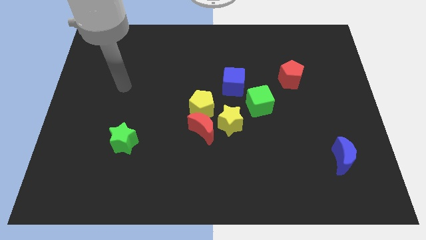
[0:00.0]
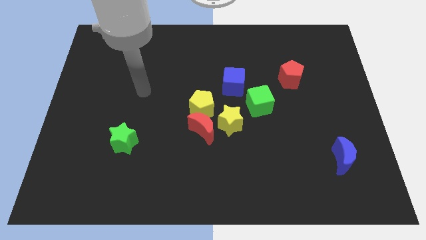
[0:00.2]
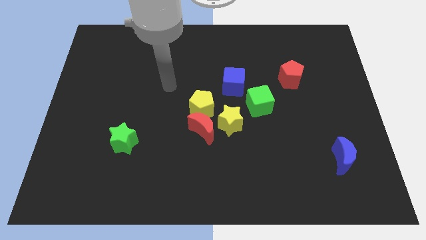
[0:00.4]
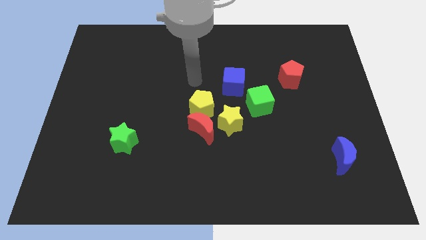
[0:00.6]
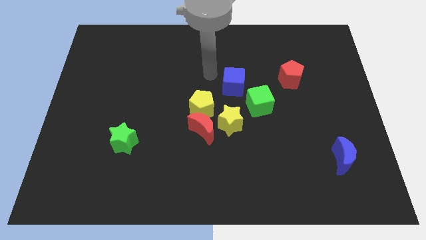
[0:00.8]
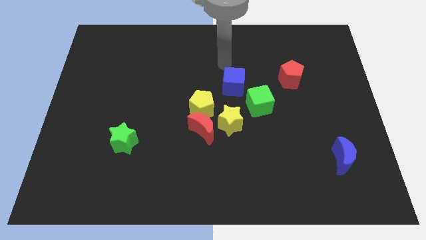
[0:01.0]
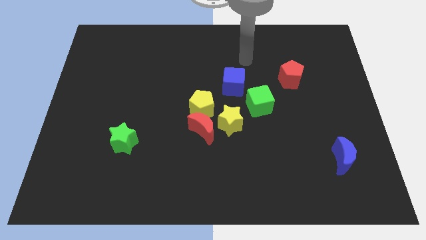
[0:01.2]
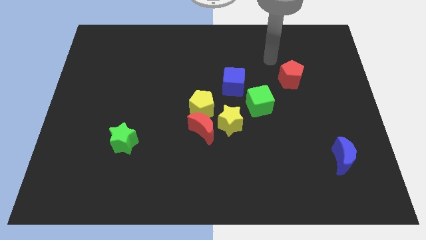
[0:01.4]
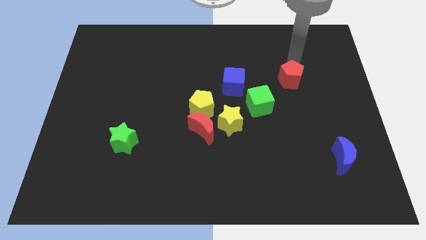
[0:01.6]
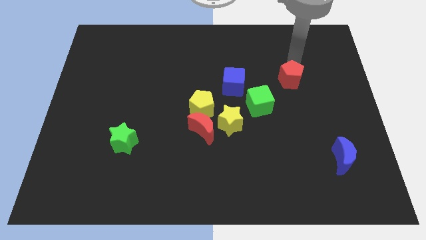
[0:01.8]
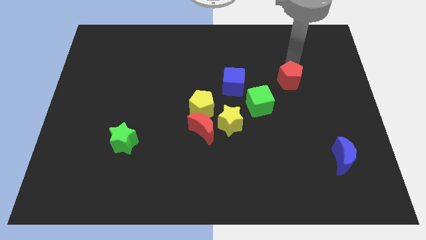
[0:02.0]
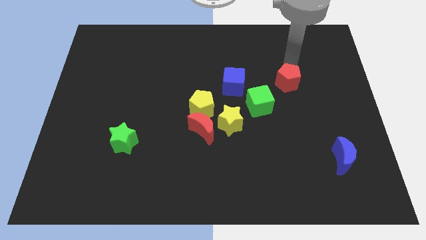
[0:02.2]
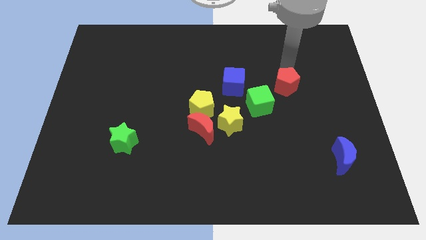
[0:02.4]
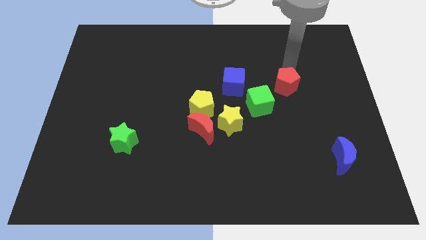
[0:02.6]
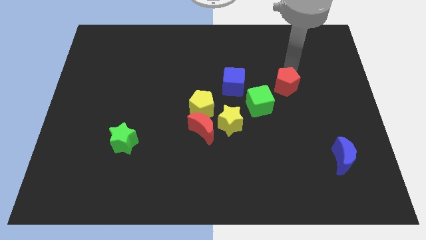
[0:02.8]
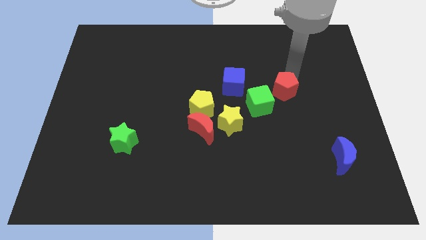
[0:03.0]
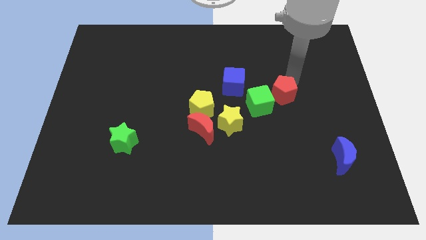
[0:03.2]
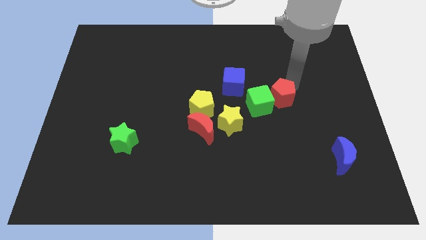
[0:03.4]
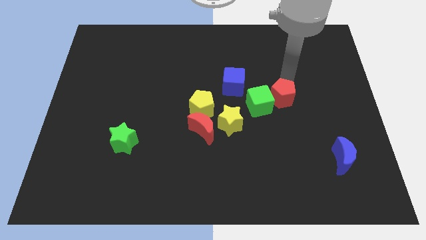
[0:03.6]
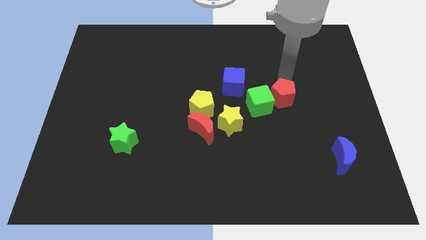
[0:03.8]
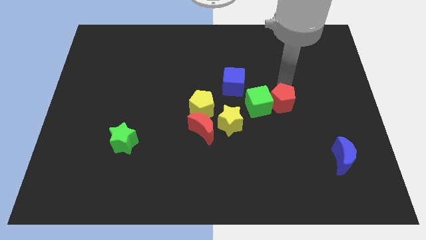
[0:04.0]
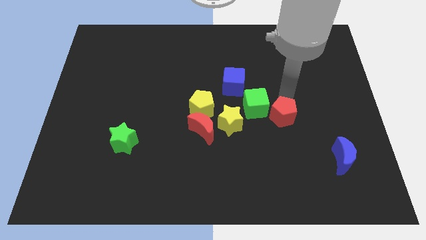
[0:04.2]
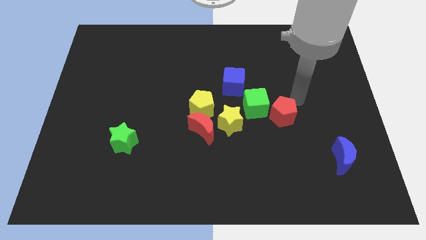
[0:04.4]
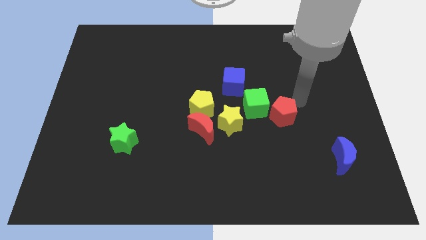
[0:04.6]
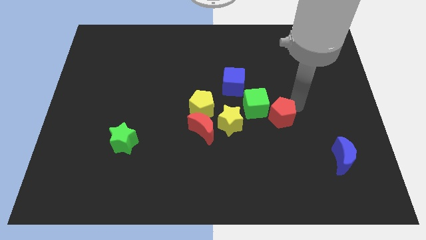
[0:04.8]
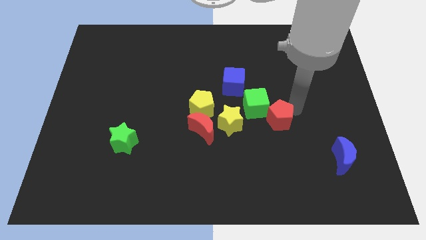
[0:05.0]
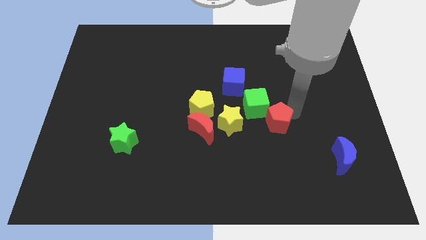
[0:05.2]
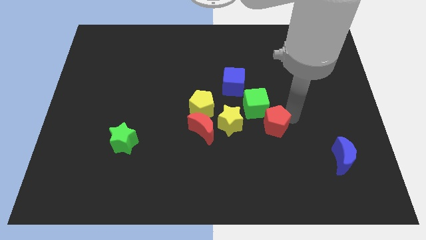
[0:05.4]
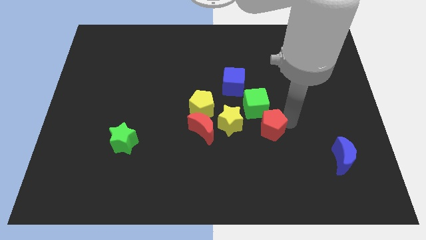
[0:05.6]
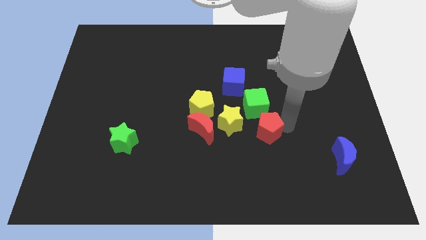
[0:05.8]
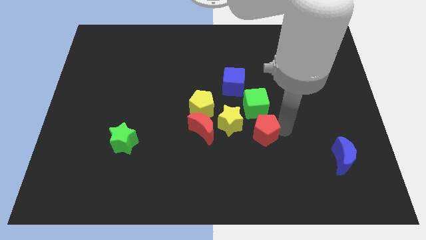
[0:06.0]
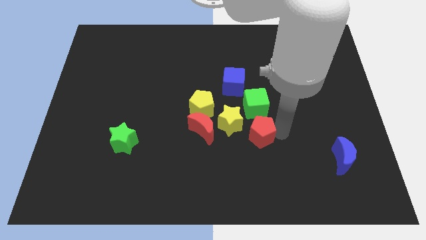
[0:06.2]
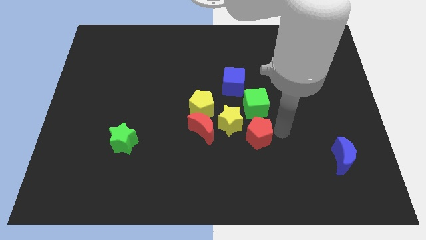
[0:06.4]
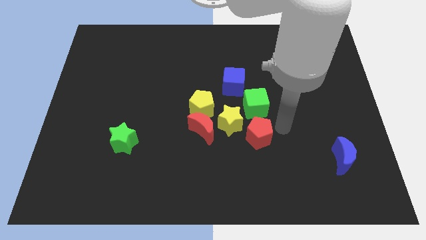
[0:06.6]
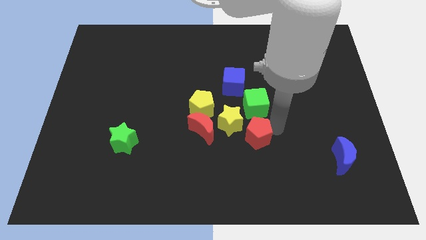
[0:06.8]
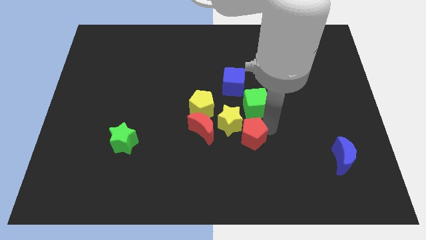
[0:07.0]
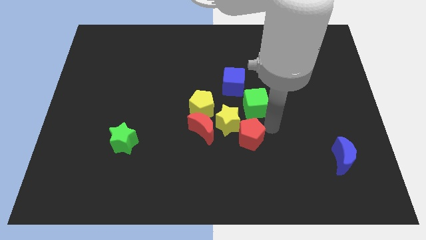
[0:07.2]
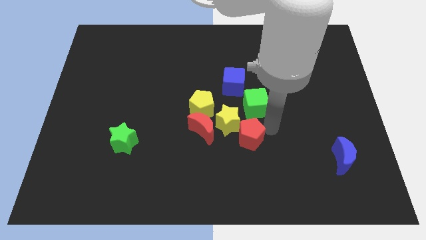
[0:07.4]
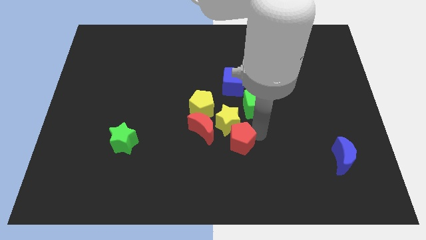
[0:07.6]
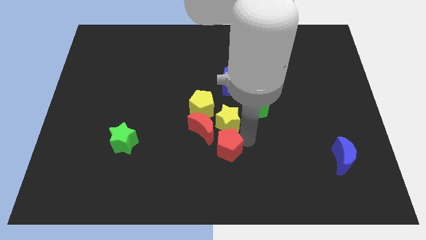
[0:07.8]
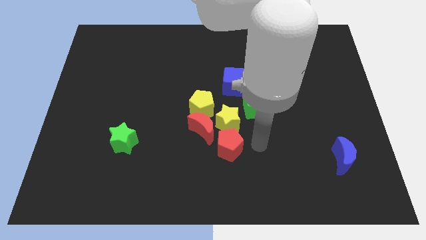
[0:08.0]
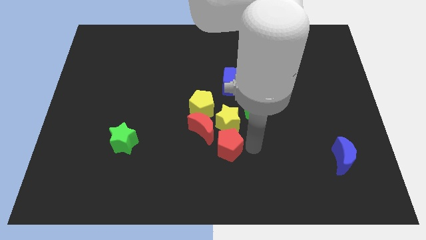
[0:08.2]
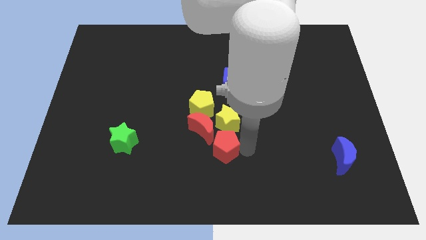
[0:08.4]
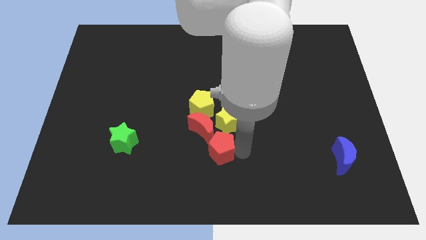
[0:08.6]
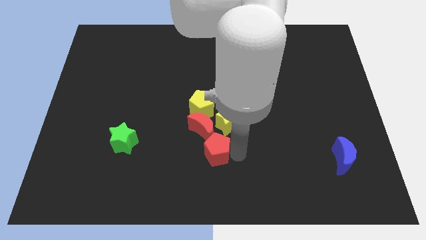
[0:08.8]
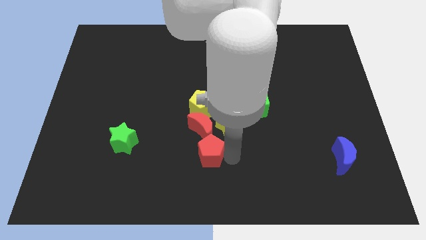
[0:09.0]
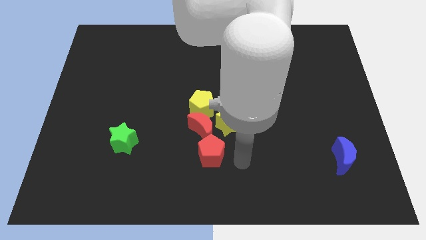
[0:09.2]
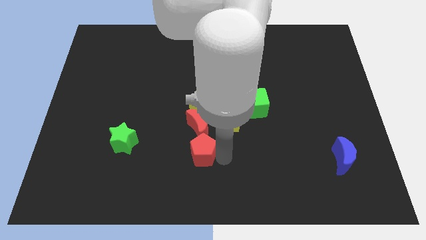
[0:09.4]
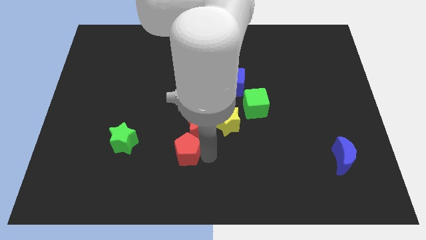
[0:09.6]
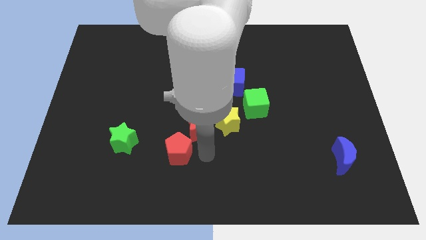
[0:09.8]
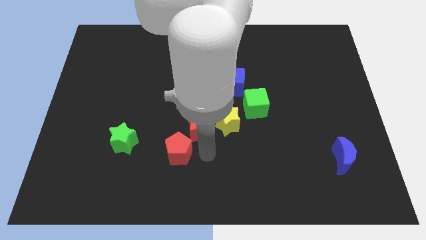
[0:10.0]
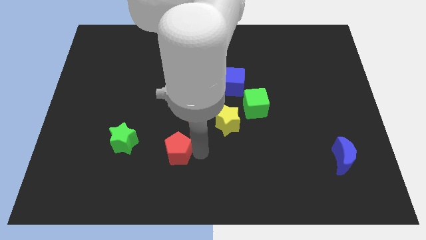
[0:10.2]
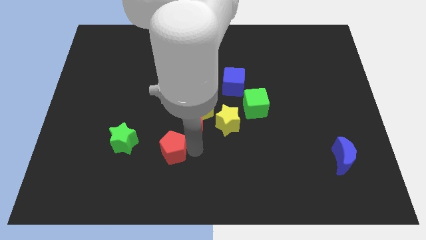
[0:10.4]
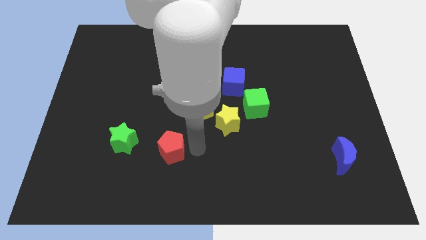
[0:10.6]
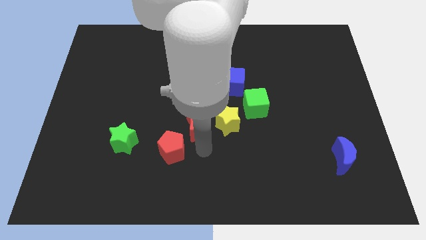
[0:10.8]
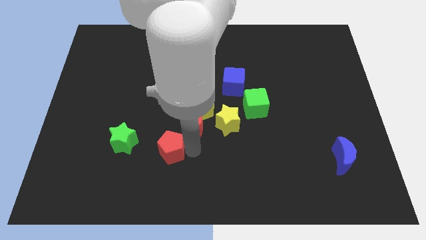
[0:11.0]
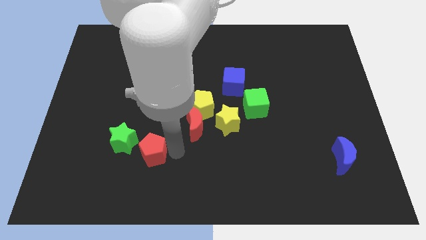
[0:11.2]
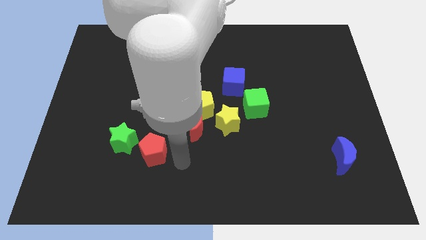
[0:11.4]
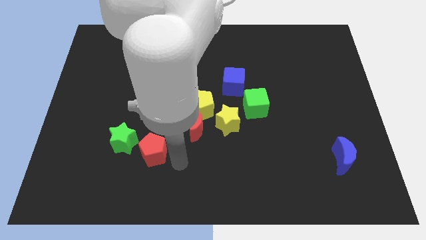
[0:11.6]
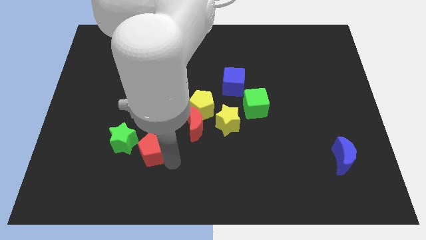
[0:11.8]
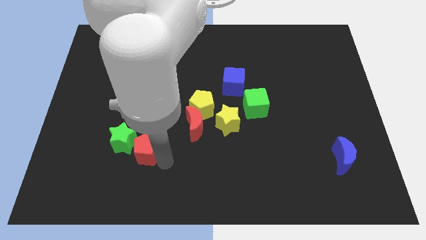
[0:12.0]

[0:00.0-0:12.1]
move the red pentagon close to the green star
